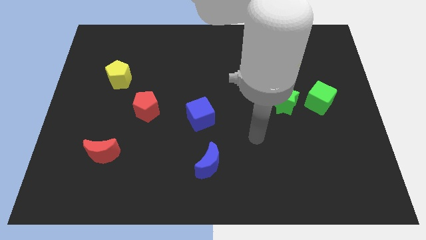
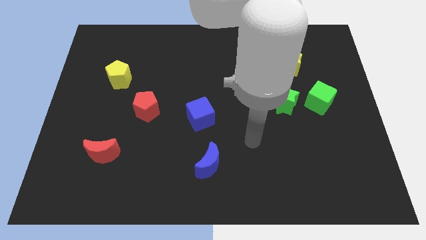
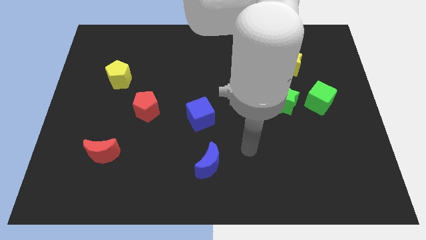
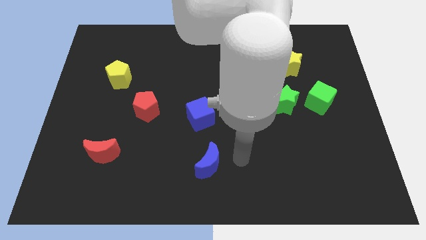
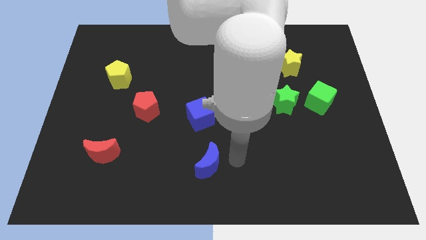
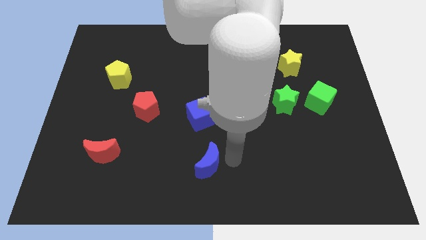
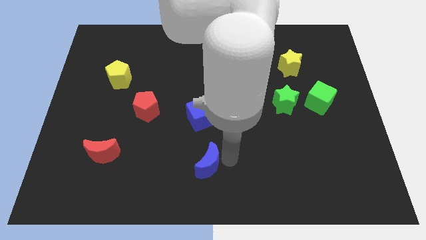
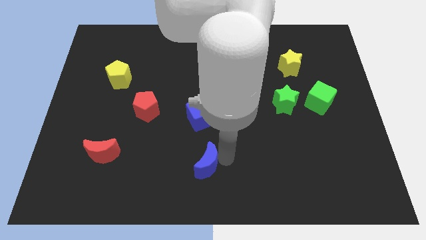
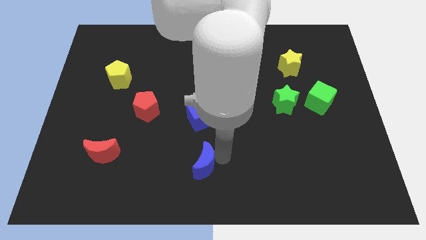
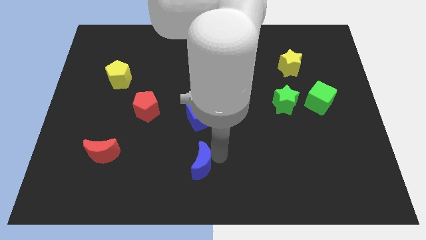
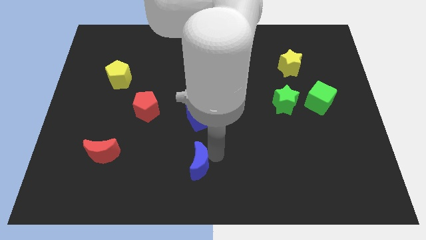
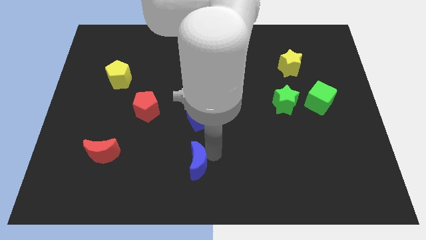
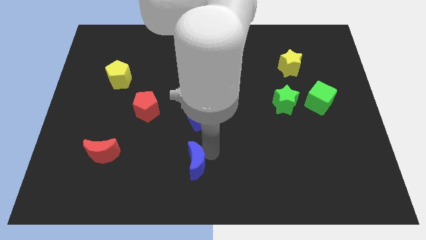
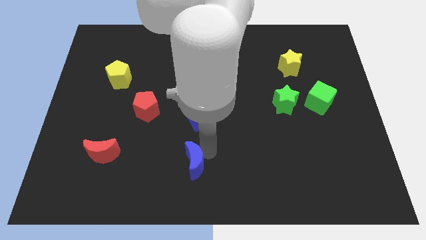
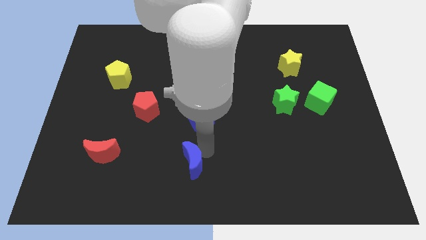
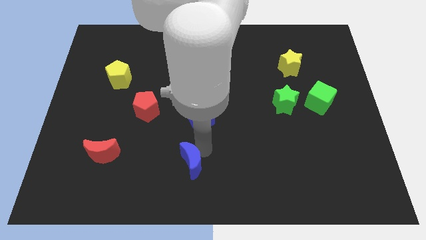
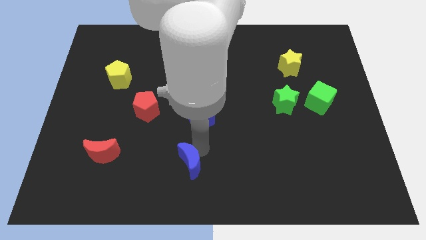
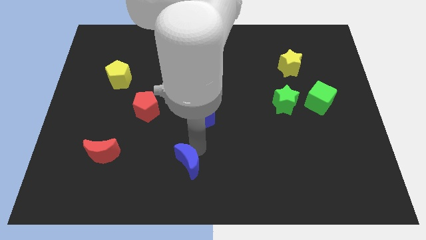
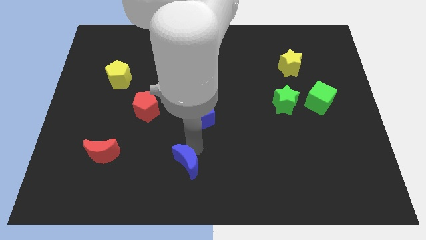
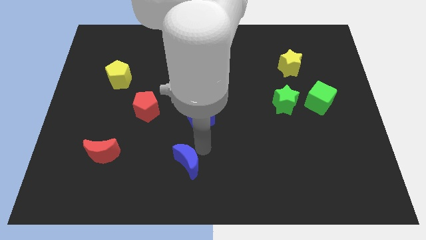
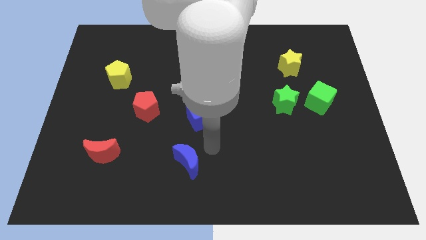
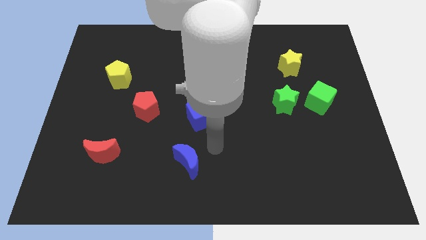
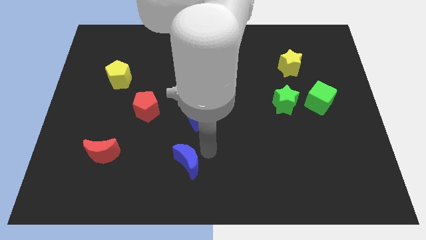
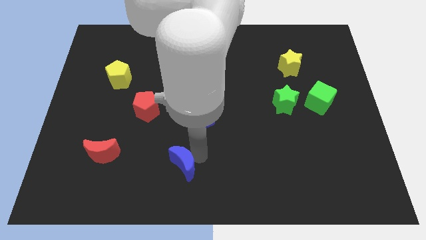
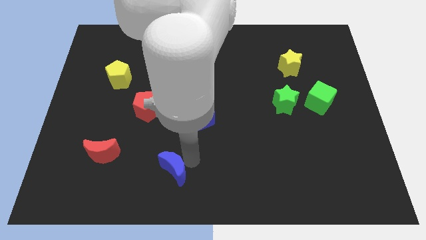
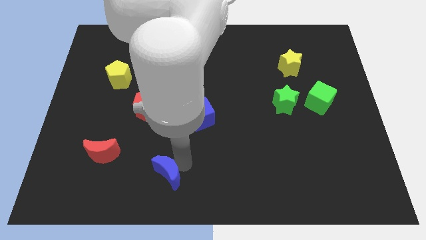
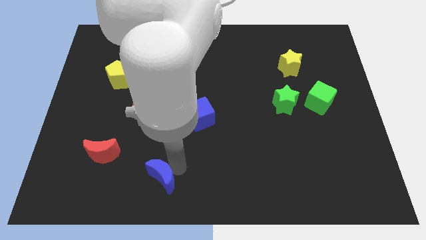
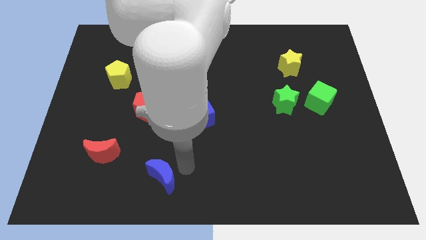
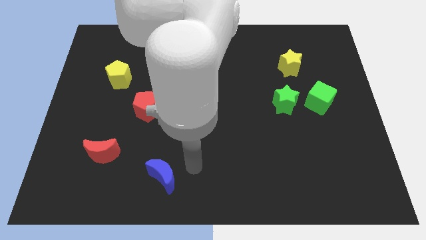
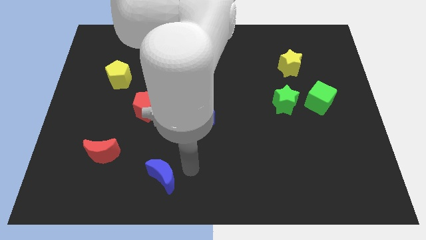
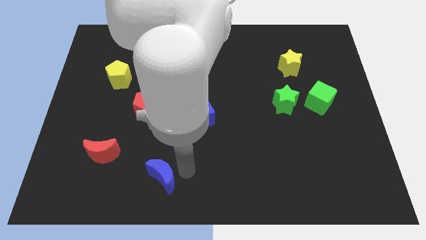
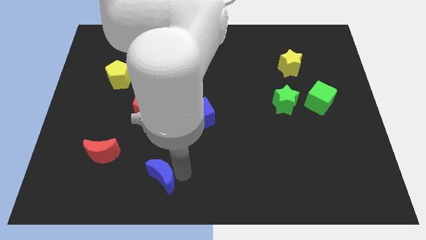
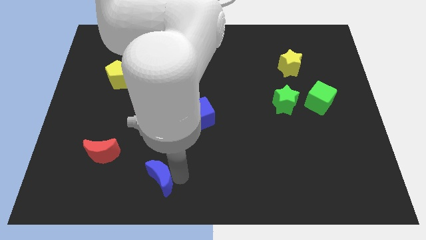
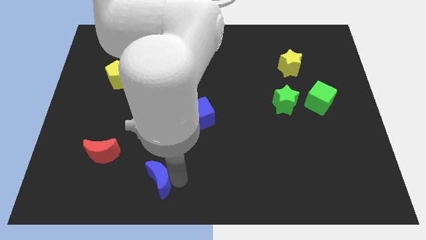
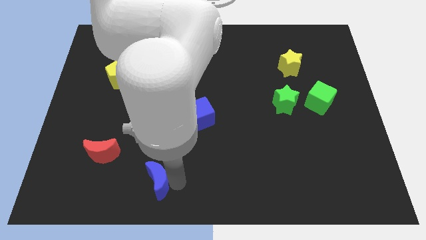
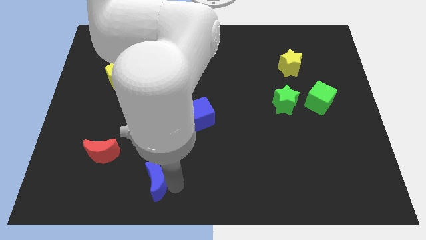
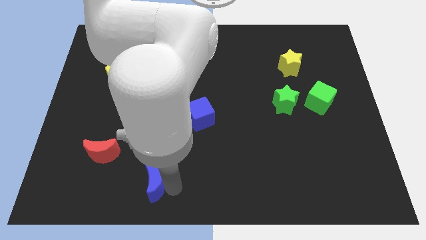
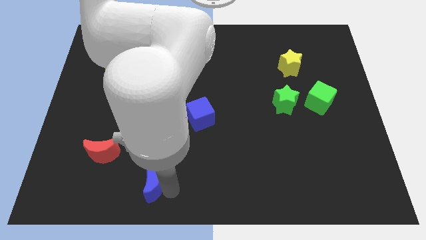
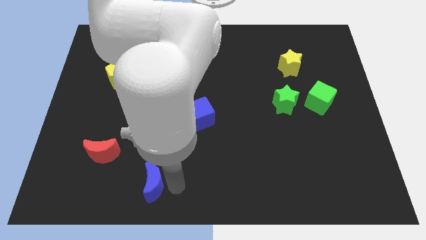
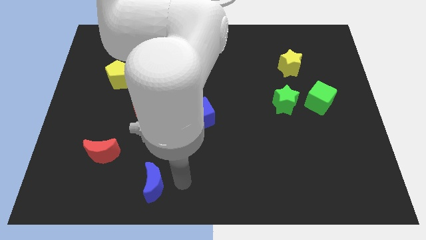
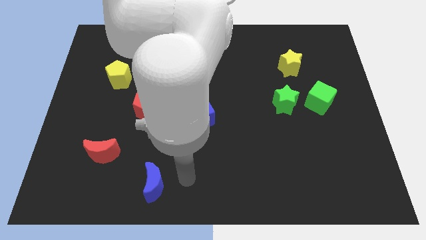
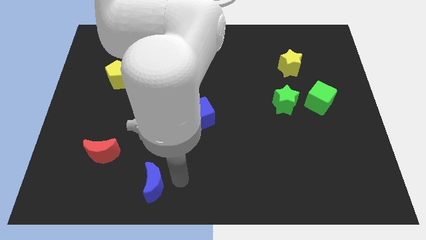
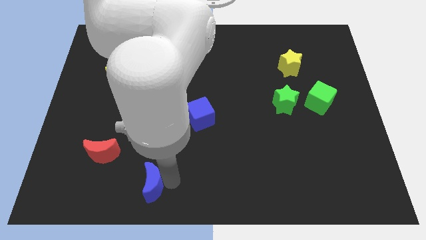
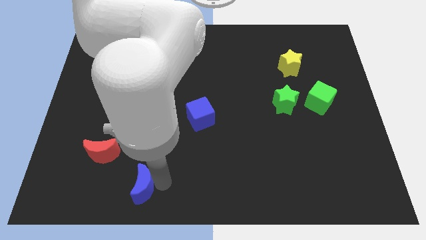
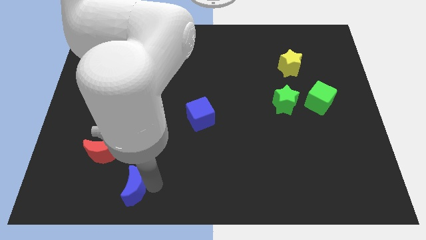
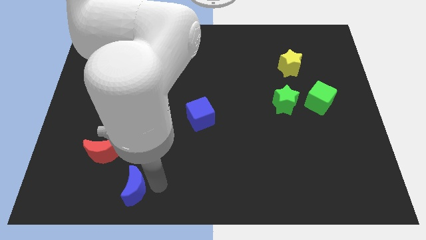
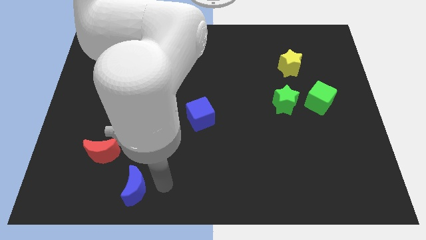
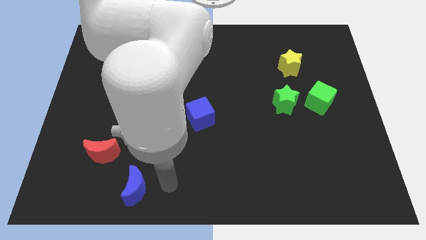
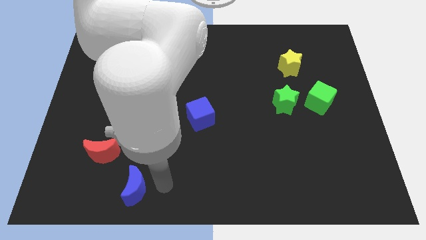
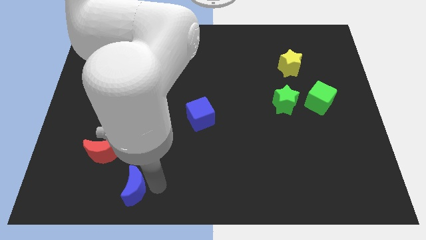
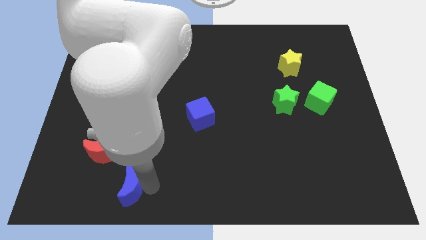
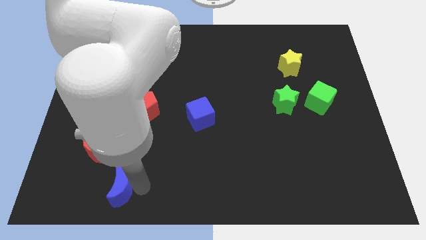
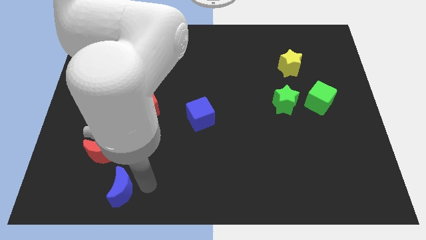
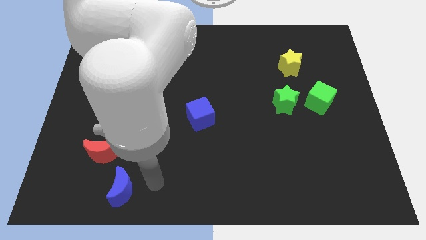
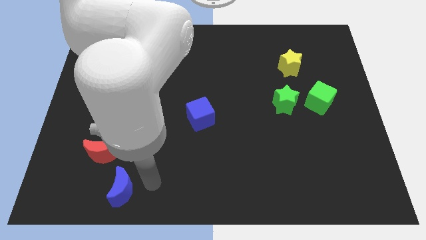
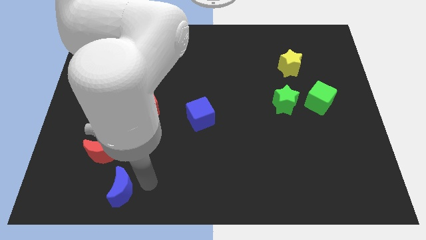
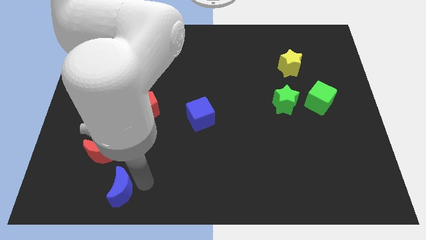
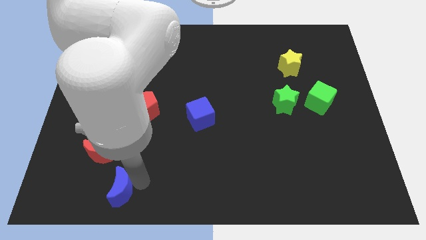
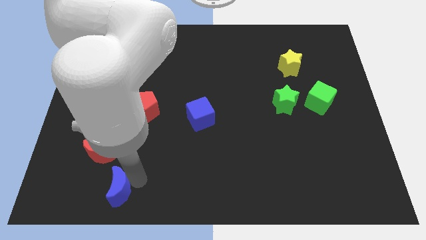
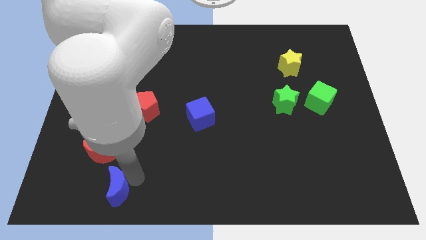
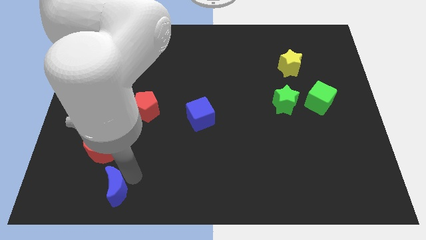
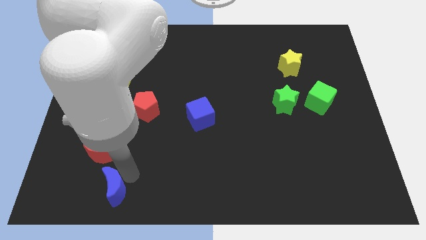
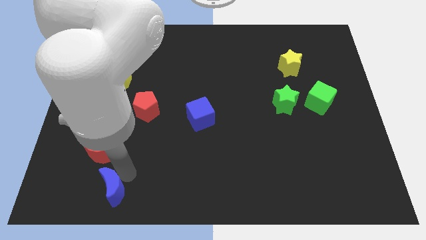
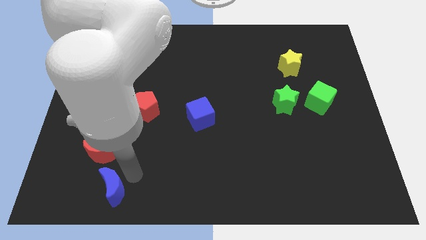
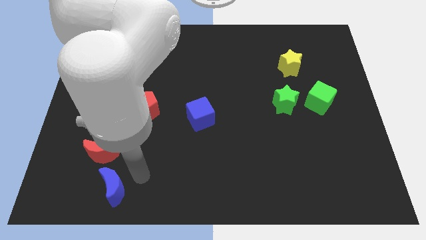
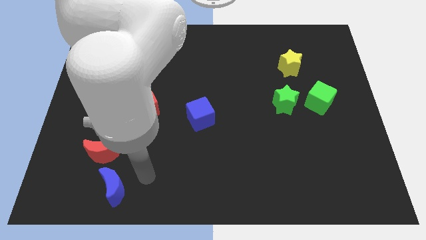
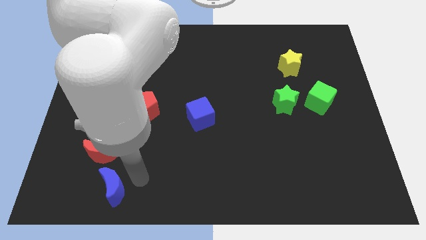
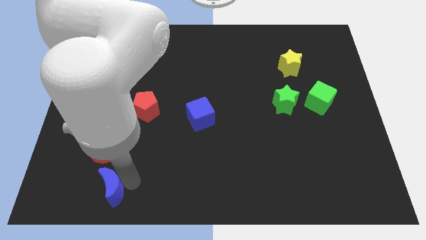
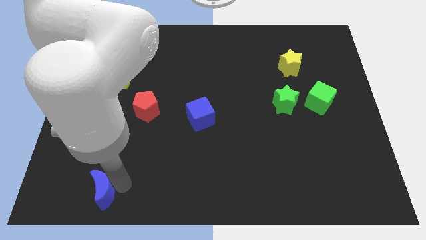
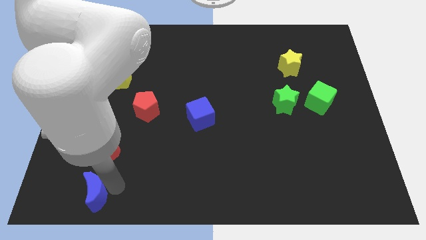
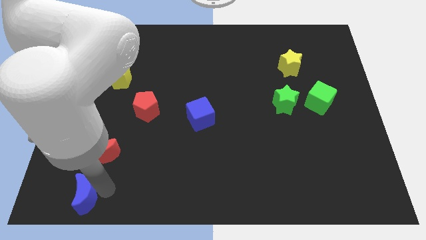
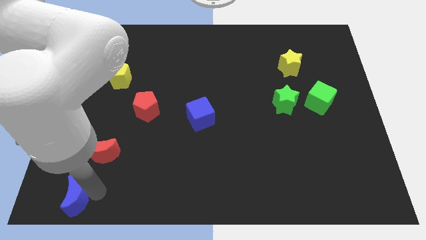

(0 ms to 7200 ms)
put the blue moon to the bottom left of the board
